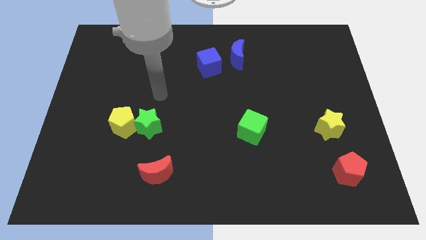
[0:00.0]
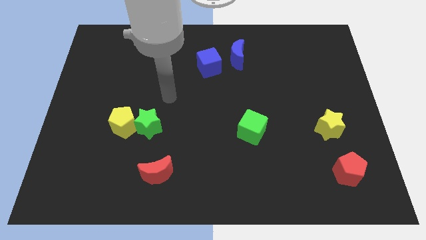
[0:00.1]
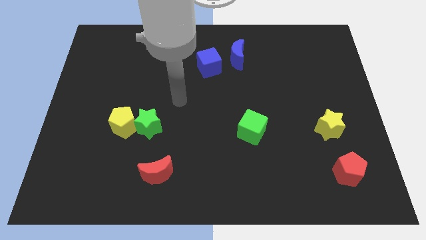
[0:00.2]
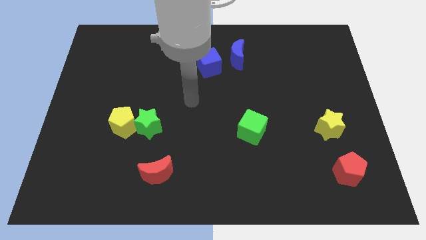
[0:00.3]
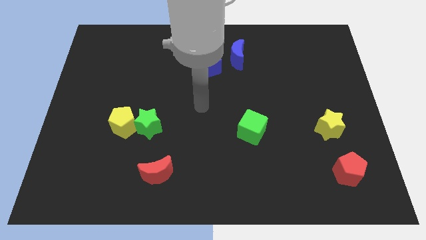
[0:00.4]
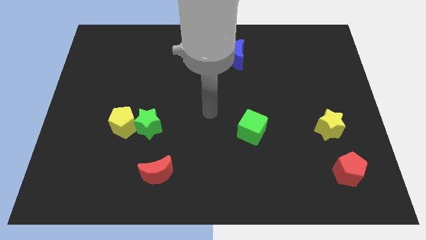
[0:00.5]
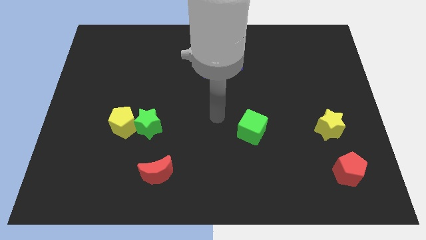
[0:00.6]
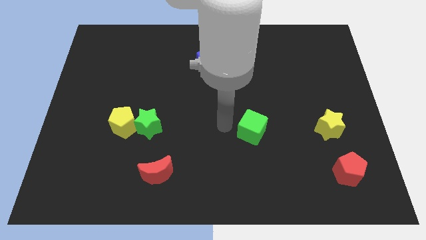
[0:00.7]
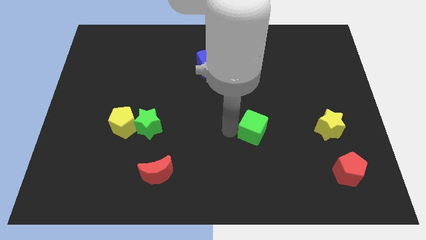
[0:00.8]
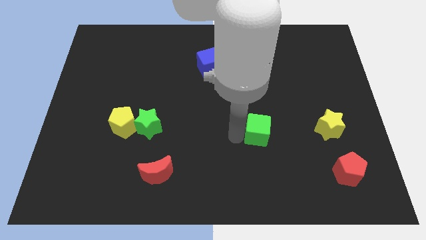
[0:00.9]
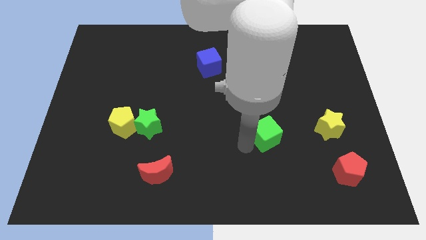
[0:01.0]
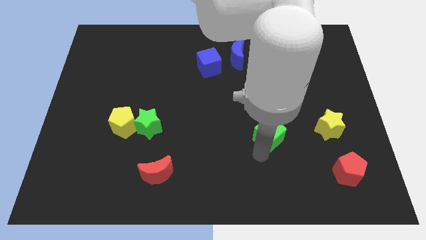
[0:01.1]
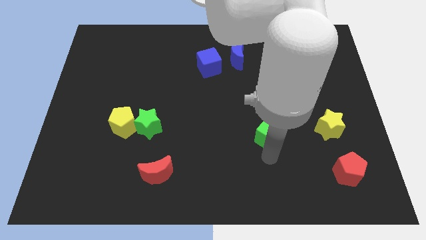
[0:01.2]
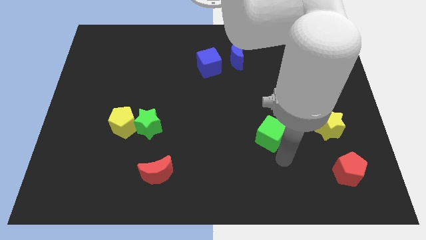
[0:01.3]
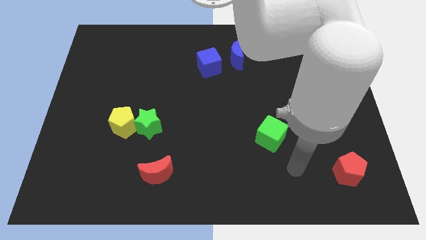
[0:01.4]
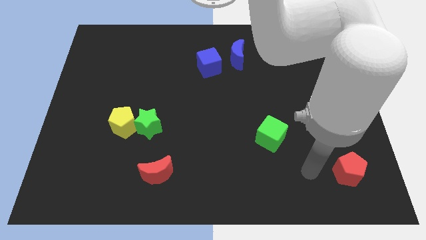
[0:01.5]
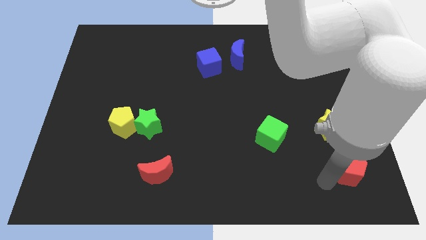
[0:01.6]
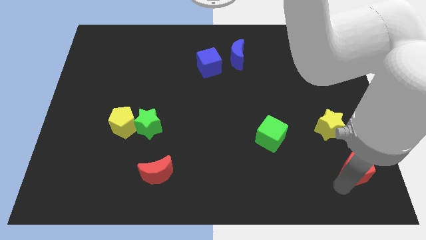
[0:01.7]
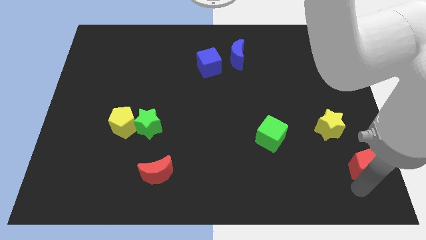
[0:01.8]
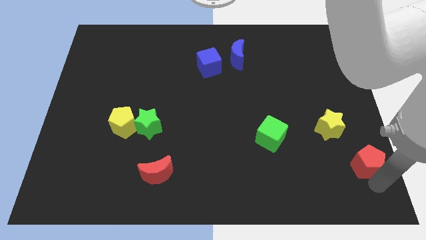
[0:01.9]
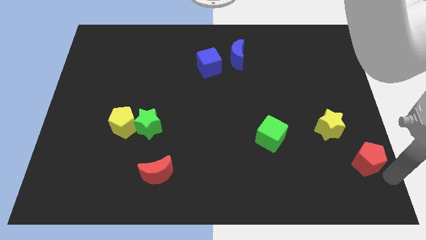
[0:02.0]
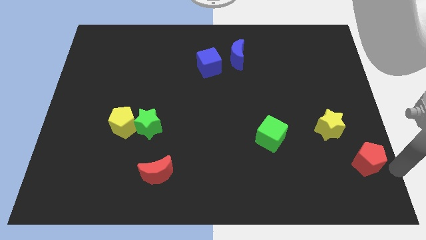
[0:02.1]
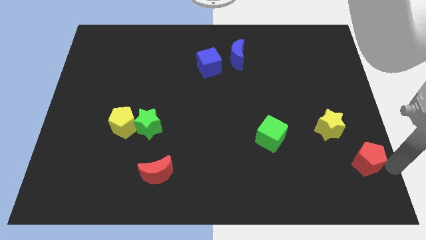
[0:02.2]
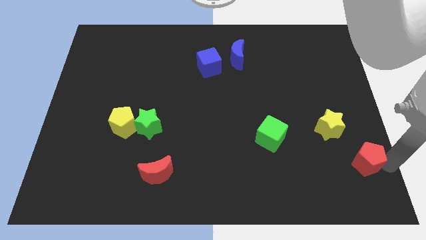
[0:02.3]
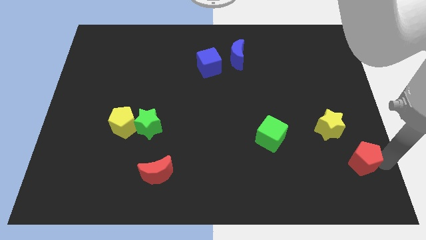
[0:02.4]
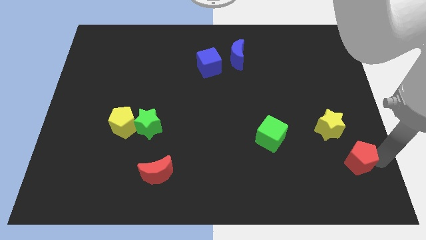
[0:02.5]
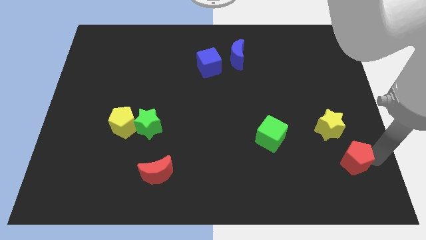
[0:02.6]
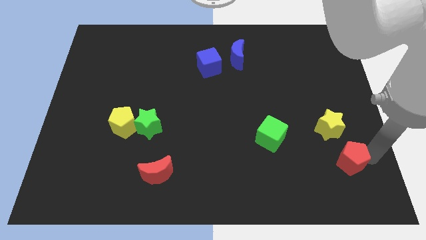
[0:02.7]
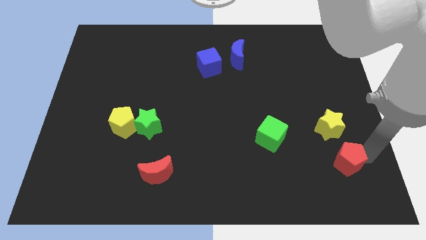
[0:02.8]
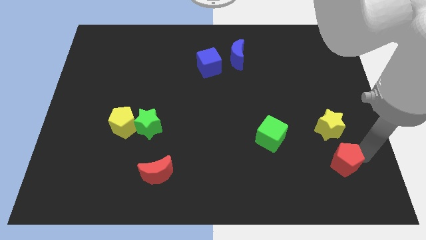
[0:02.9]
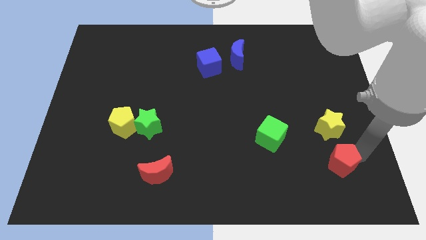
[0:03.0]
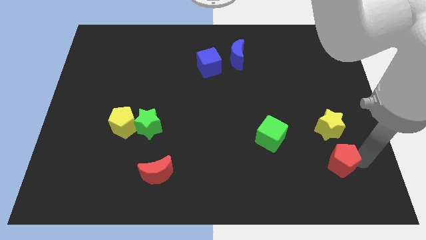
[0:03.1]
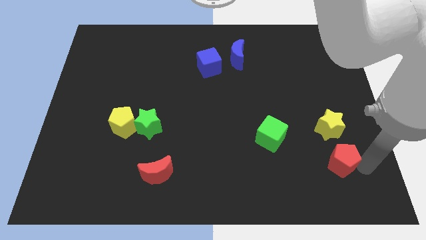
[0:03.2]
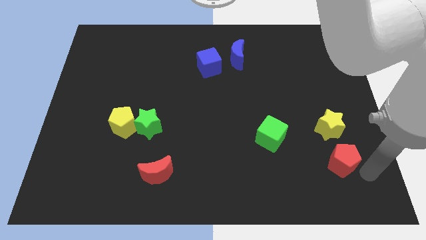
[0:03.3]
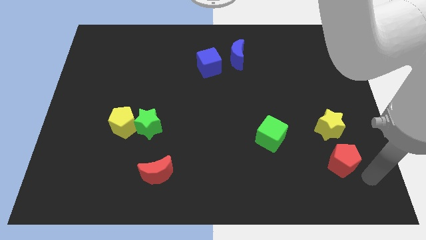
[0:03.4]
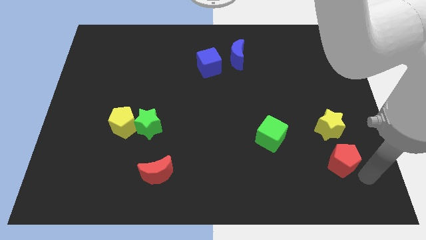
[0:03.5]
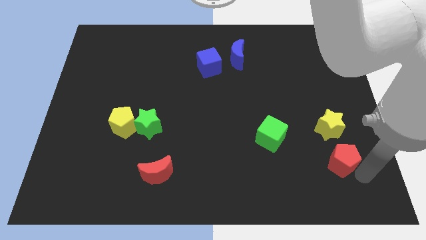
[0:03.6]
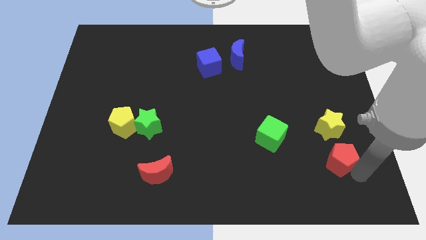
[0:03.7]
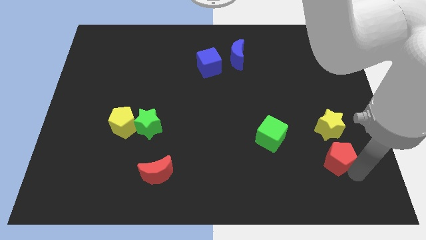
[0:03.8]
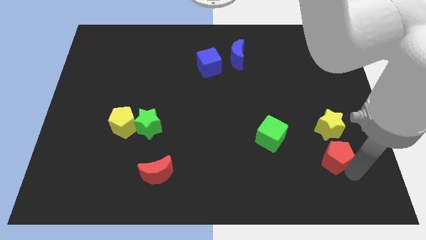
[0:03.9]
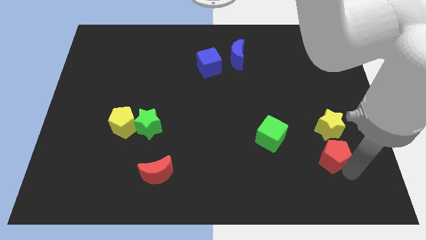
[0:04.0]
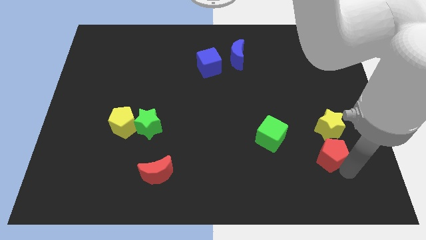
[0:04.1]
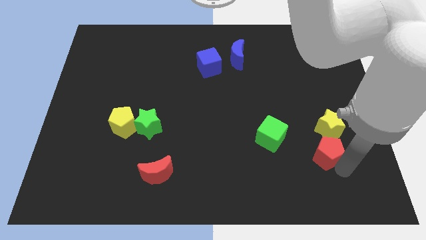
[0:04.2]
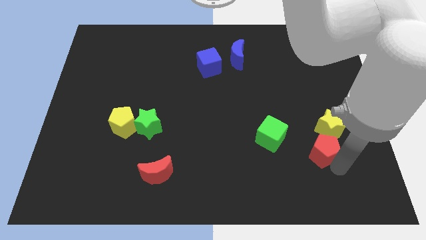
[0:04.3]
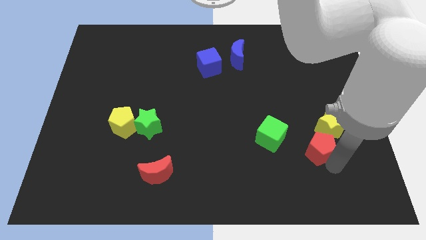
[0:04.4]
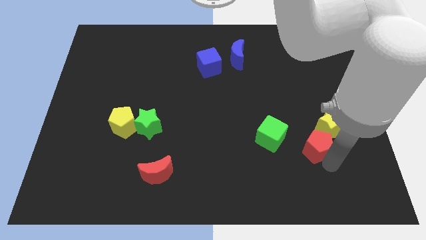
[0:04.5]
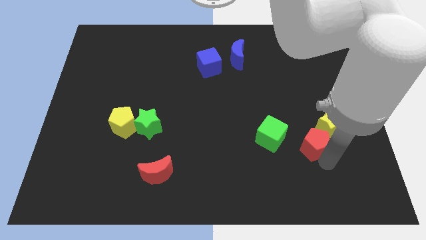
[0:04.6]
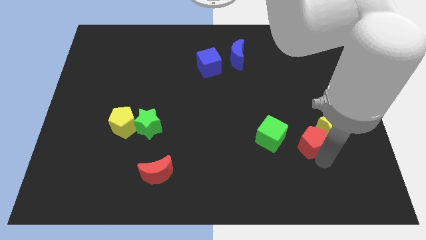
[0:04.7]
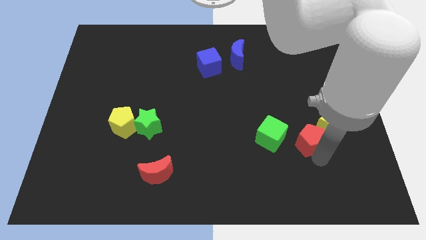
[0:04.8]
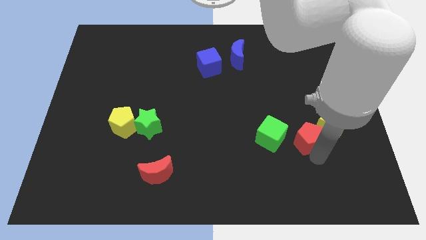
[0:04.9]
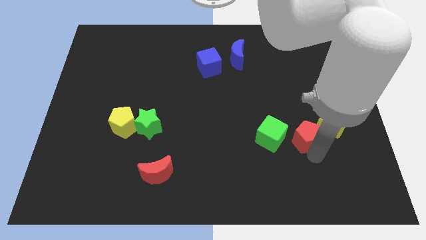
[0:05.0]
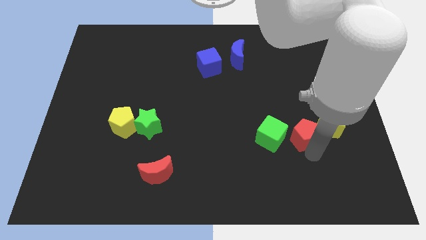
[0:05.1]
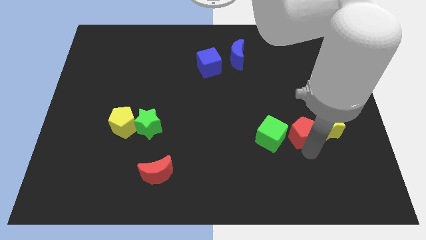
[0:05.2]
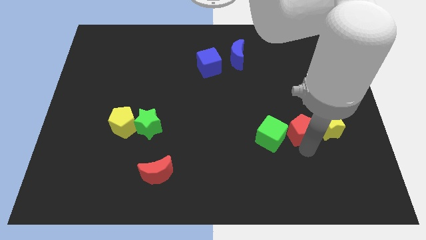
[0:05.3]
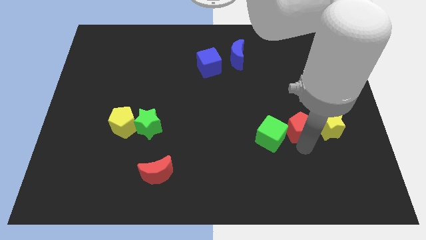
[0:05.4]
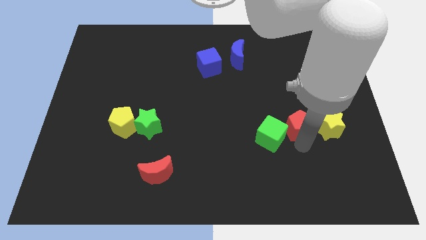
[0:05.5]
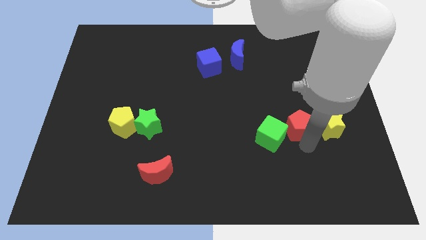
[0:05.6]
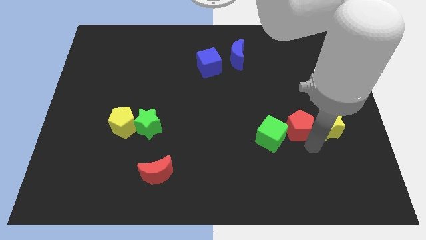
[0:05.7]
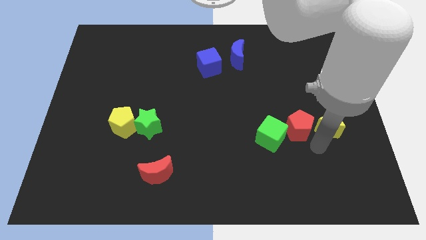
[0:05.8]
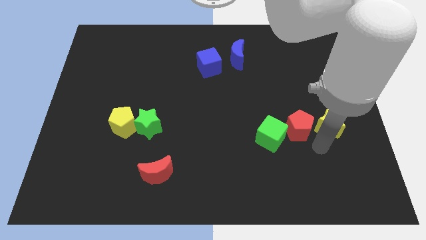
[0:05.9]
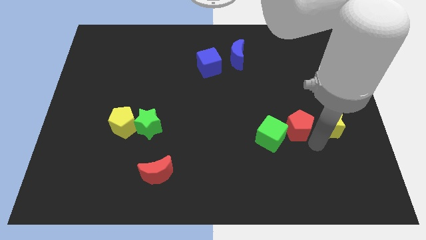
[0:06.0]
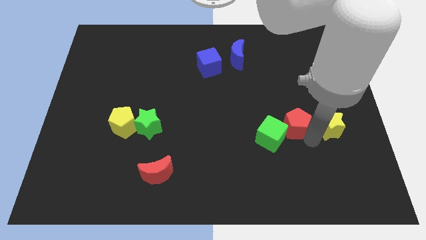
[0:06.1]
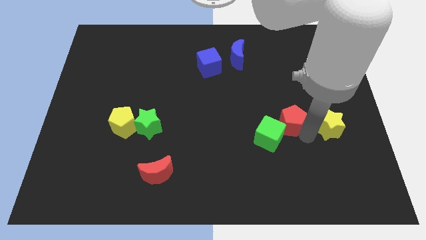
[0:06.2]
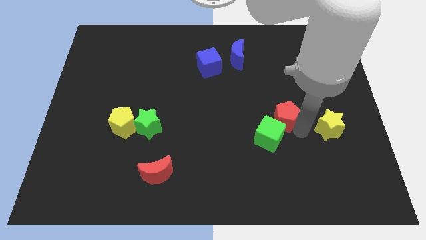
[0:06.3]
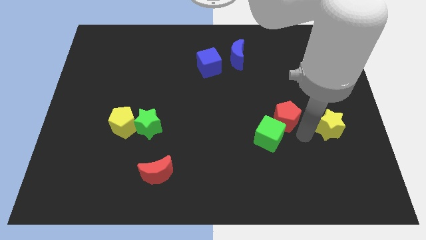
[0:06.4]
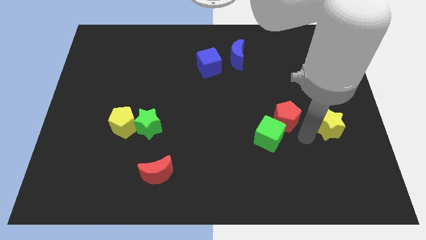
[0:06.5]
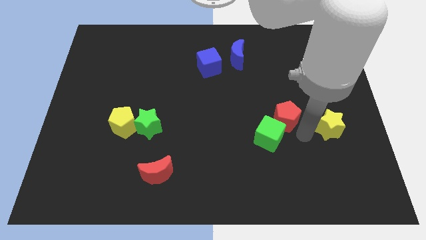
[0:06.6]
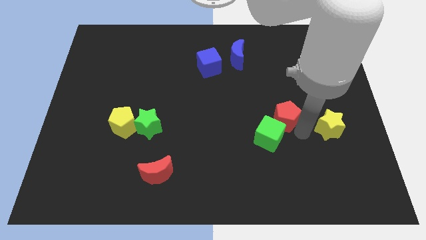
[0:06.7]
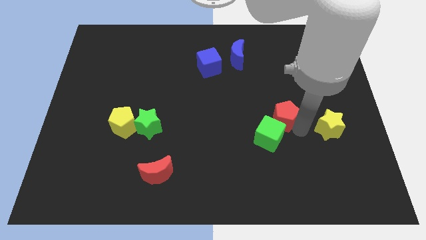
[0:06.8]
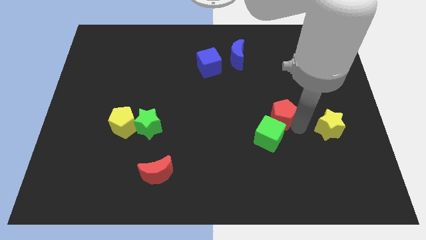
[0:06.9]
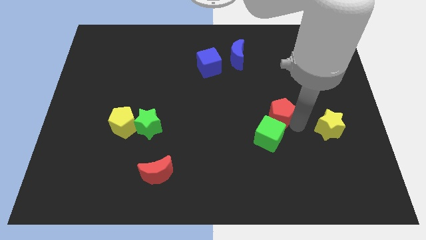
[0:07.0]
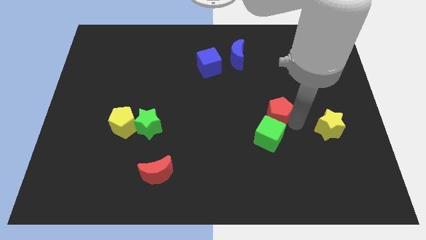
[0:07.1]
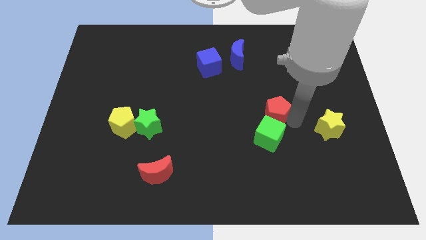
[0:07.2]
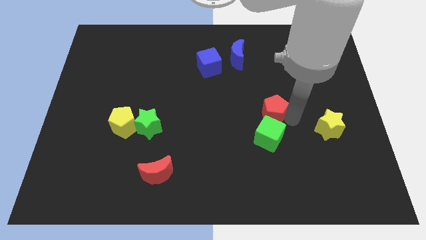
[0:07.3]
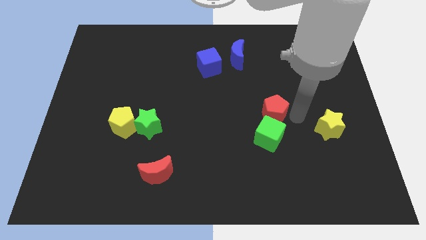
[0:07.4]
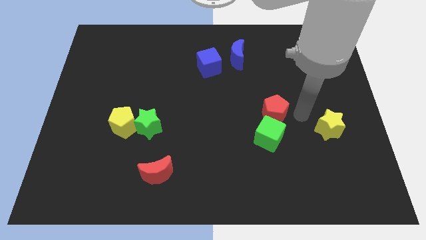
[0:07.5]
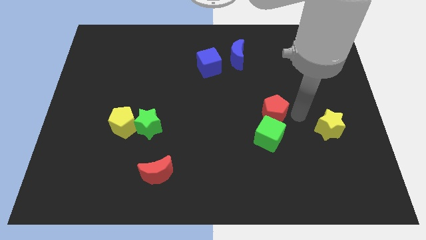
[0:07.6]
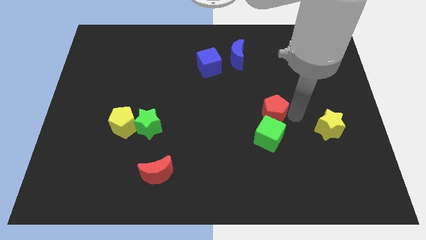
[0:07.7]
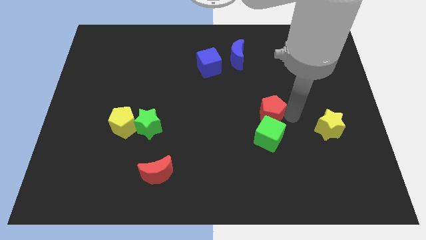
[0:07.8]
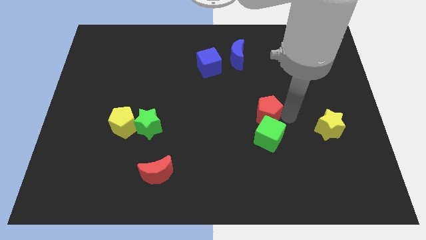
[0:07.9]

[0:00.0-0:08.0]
push the red pentagon to the top left side of the green cube
